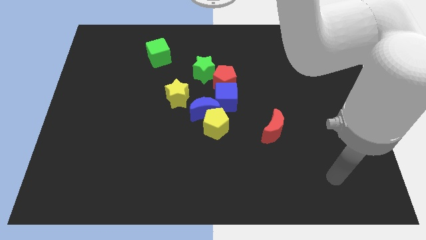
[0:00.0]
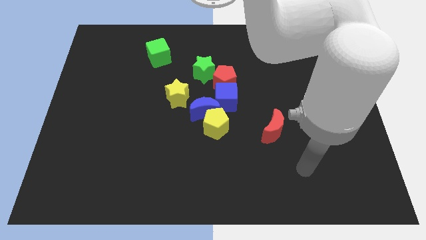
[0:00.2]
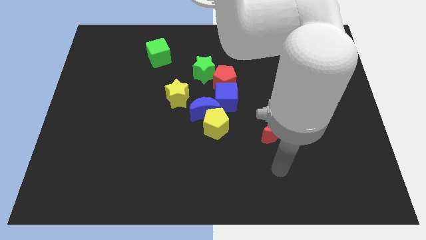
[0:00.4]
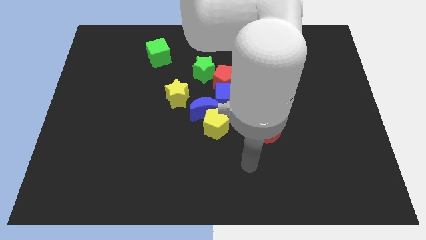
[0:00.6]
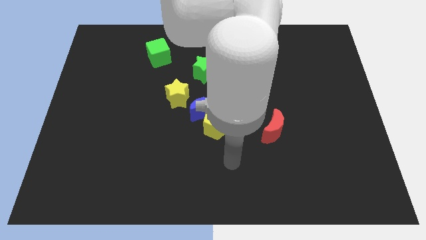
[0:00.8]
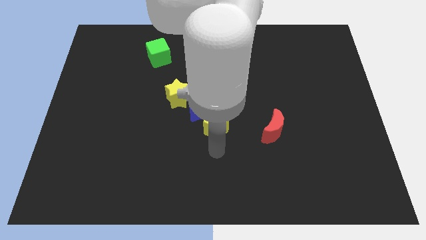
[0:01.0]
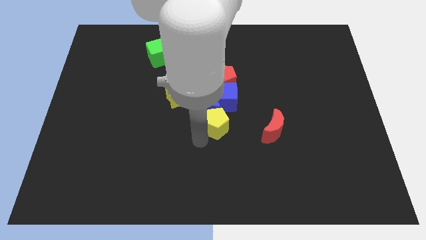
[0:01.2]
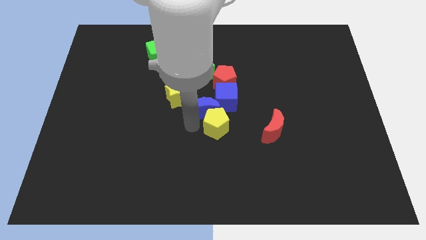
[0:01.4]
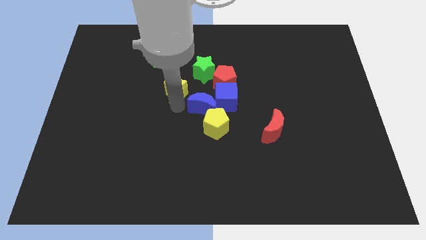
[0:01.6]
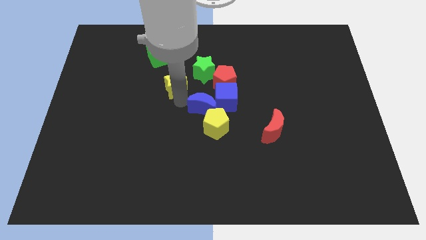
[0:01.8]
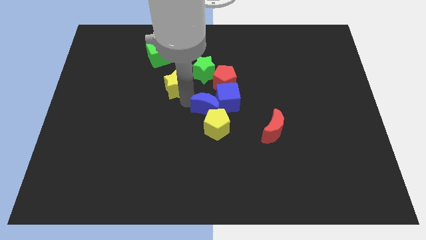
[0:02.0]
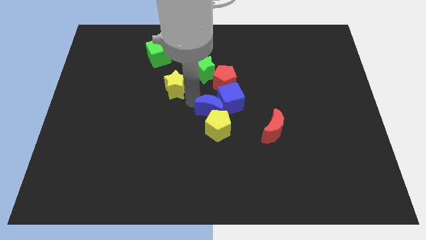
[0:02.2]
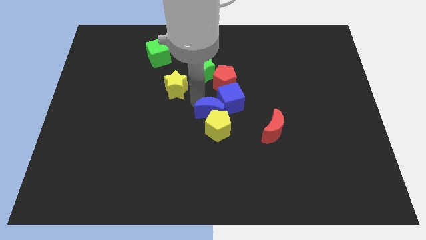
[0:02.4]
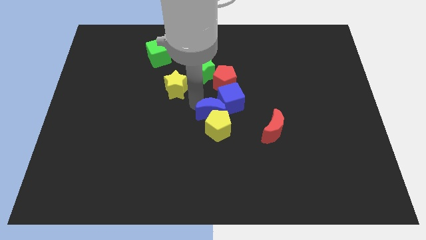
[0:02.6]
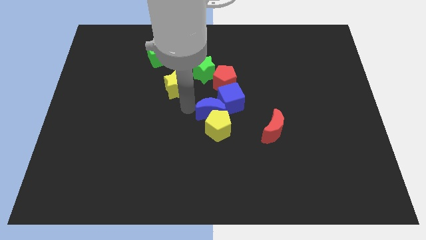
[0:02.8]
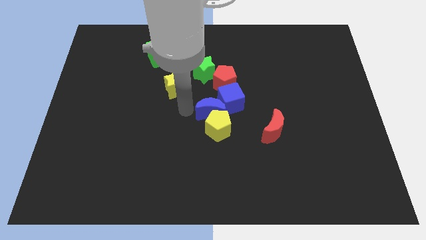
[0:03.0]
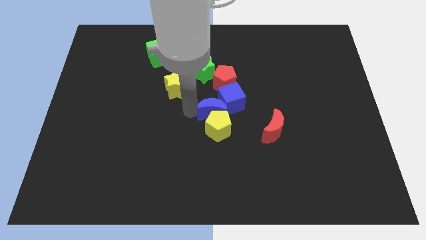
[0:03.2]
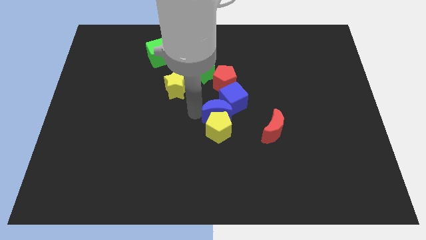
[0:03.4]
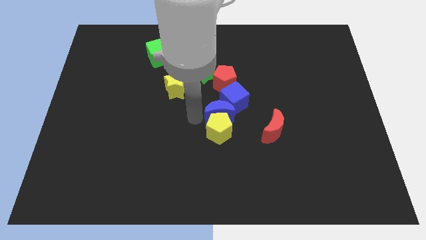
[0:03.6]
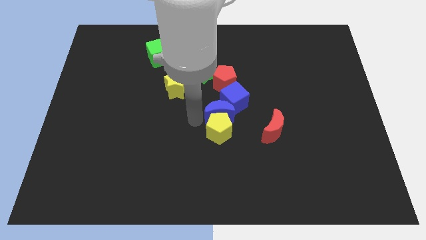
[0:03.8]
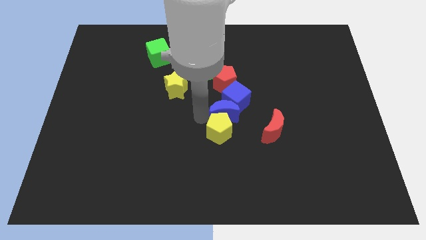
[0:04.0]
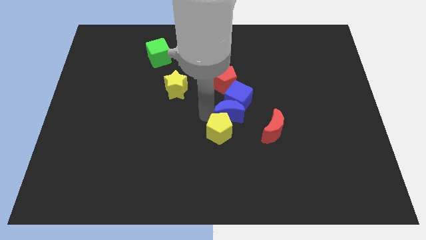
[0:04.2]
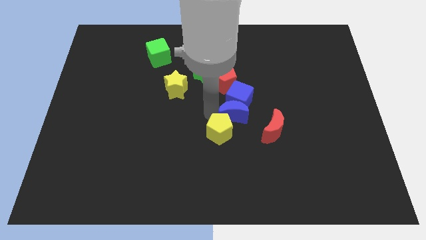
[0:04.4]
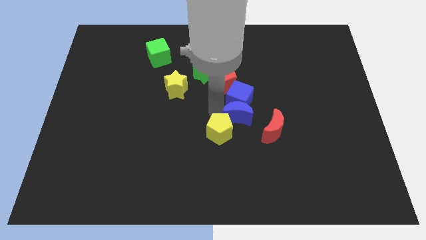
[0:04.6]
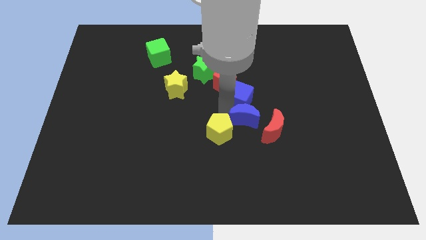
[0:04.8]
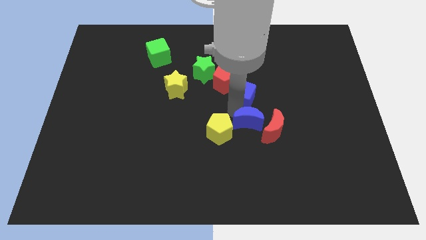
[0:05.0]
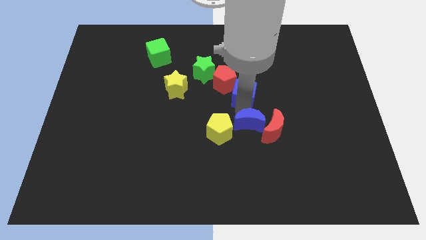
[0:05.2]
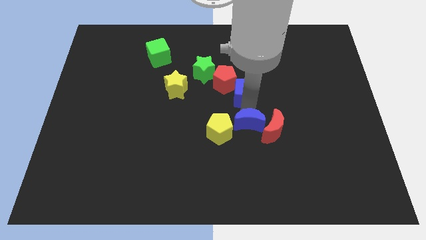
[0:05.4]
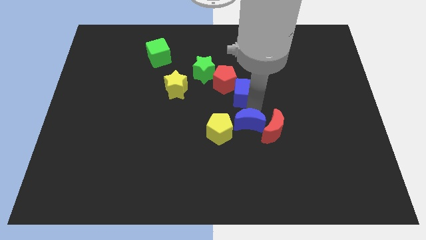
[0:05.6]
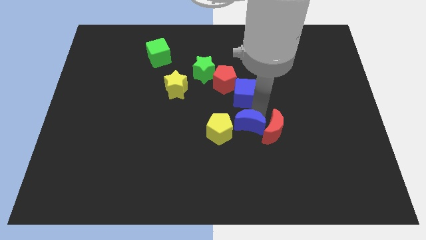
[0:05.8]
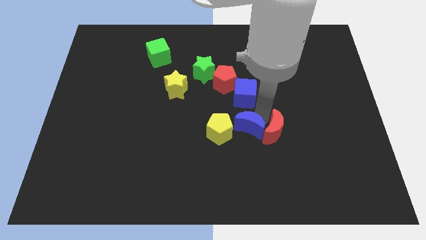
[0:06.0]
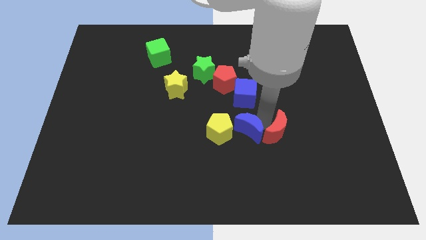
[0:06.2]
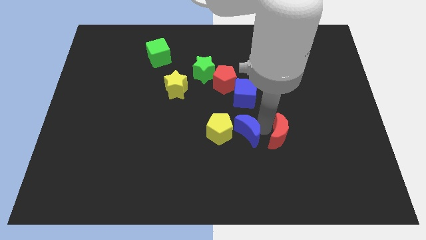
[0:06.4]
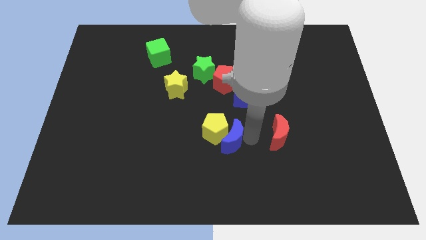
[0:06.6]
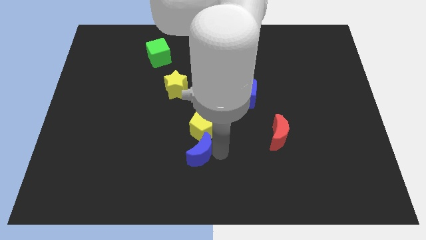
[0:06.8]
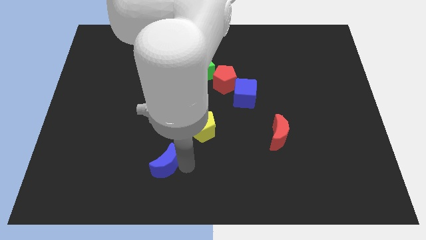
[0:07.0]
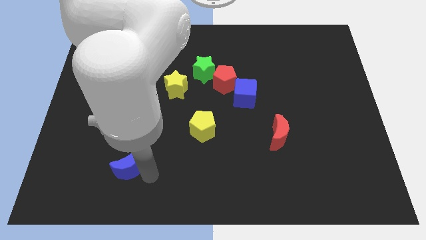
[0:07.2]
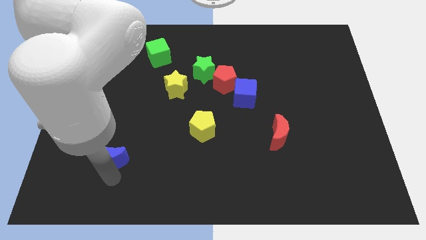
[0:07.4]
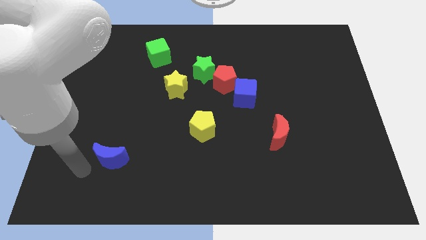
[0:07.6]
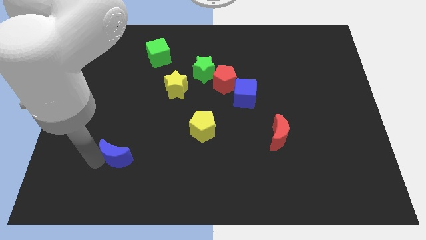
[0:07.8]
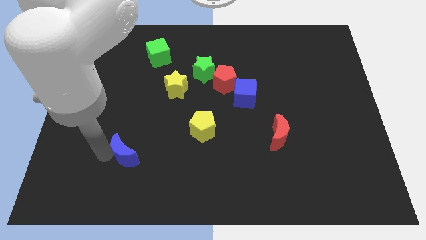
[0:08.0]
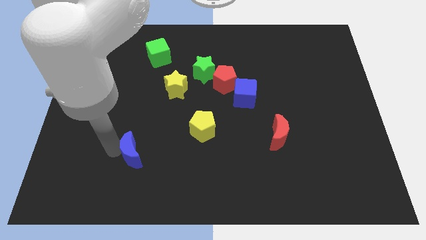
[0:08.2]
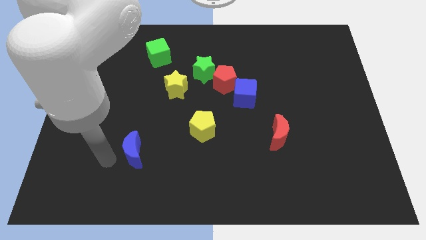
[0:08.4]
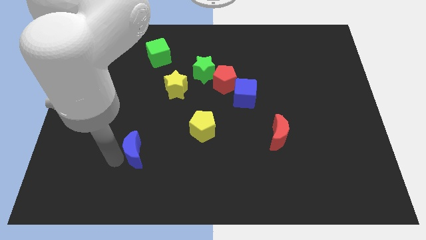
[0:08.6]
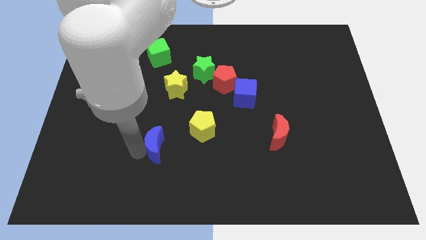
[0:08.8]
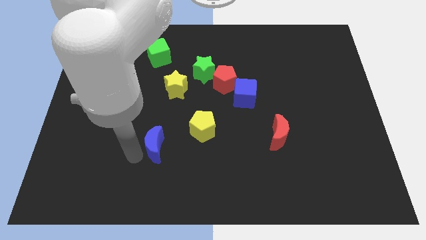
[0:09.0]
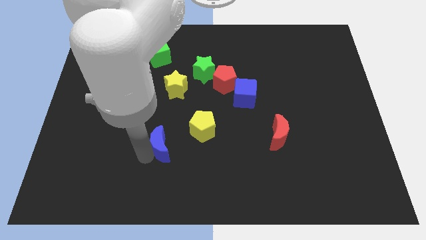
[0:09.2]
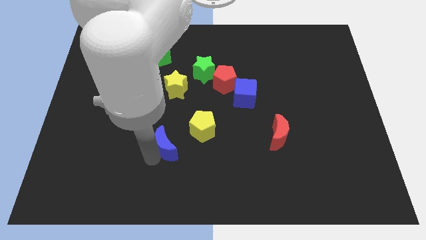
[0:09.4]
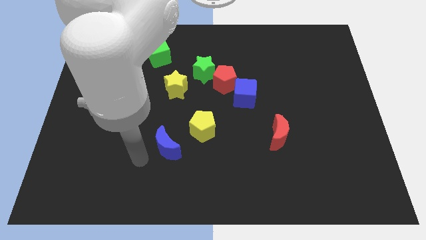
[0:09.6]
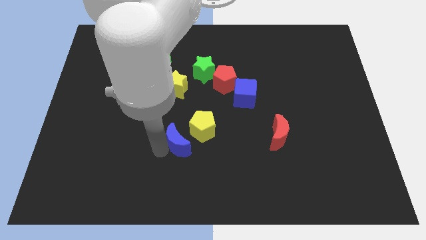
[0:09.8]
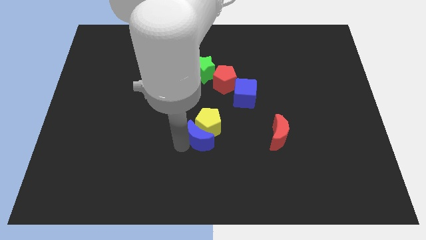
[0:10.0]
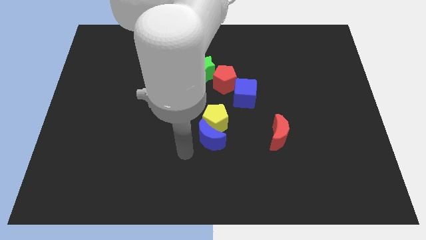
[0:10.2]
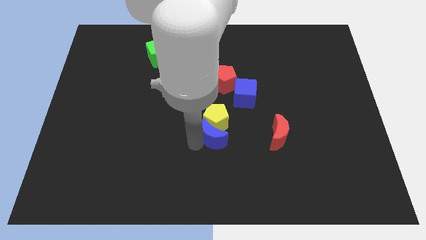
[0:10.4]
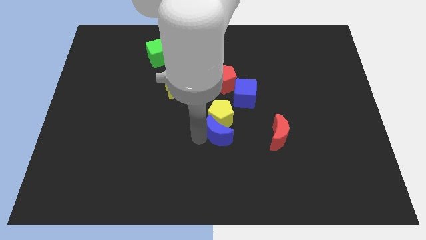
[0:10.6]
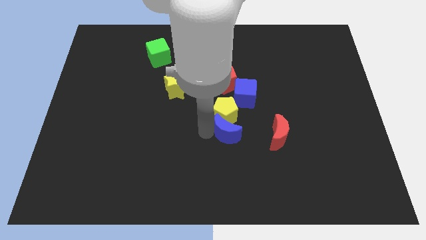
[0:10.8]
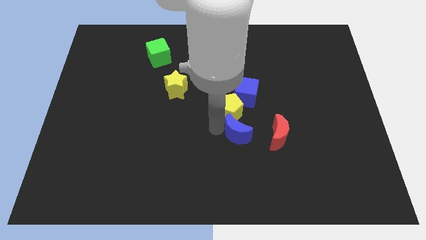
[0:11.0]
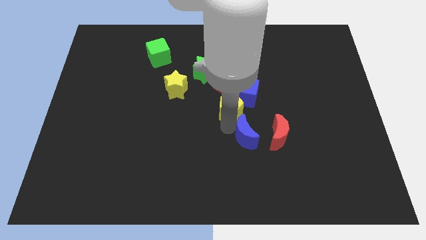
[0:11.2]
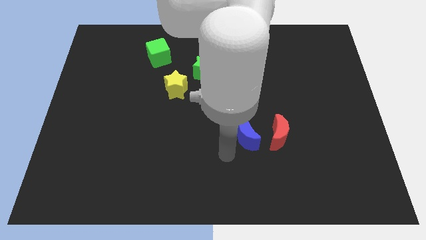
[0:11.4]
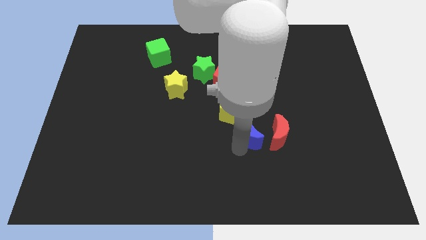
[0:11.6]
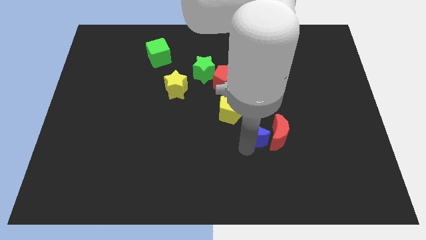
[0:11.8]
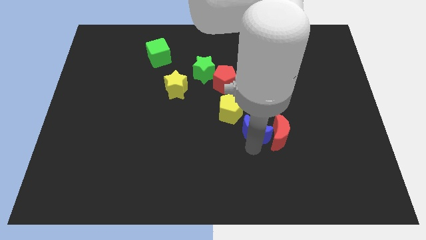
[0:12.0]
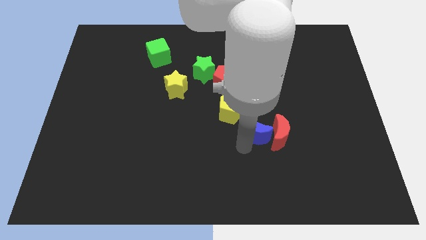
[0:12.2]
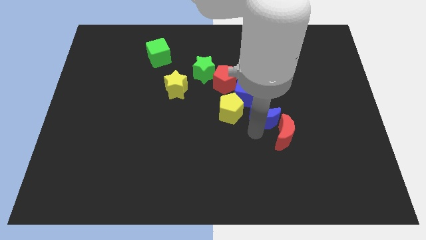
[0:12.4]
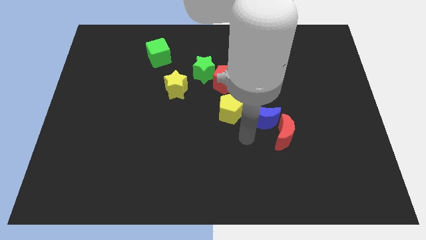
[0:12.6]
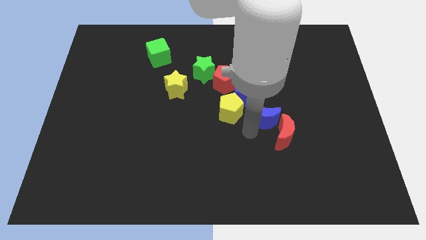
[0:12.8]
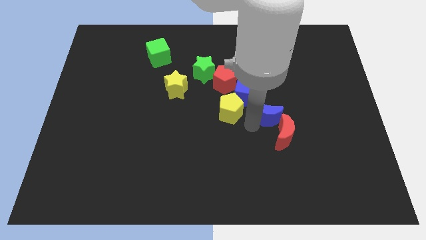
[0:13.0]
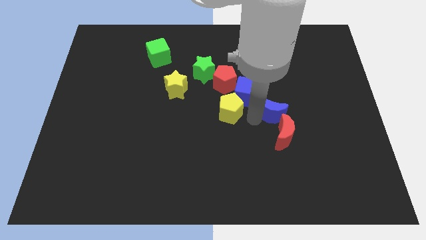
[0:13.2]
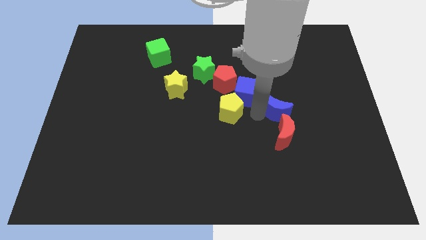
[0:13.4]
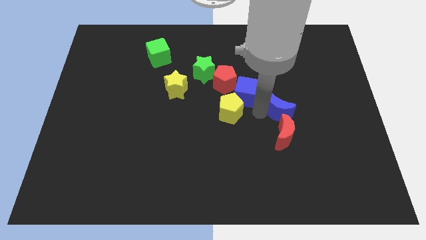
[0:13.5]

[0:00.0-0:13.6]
put the blue moon just right of the blue cube
